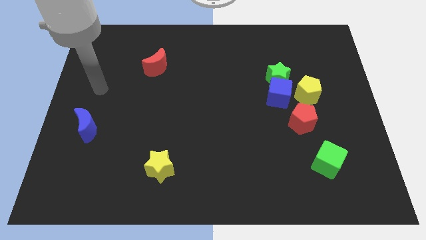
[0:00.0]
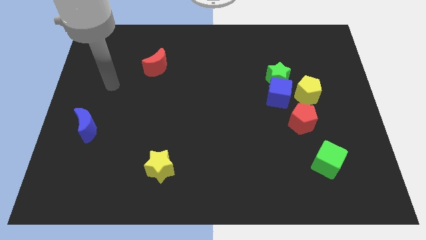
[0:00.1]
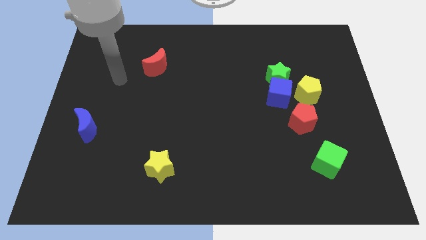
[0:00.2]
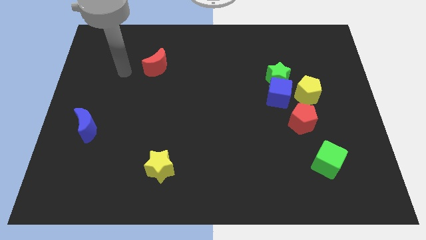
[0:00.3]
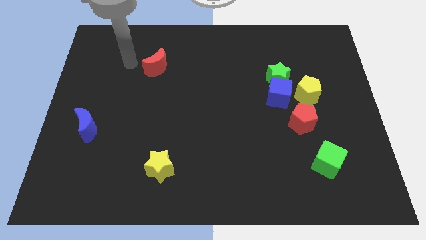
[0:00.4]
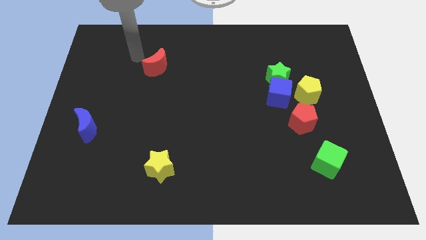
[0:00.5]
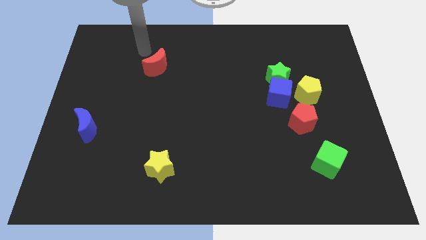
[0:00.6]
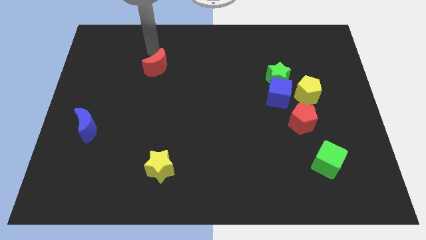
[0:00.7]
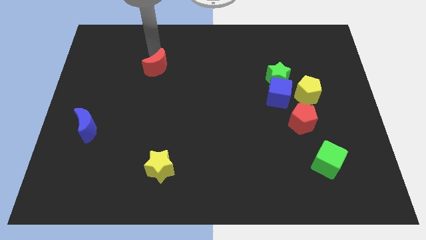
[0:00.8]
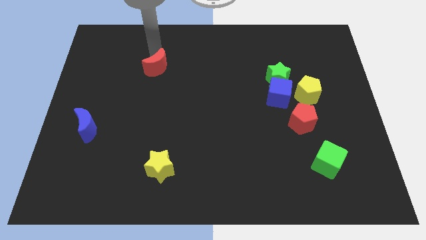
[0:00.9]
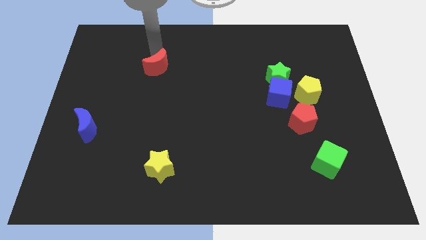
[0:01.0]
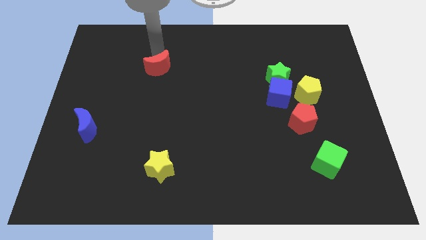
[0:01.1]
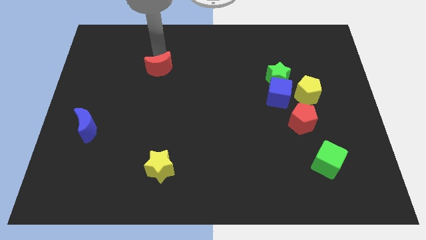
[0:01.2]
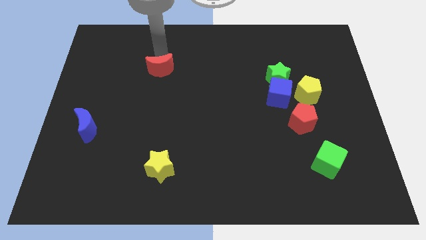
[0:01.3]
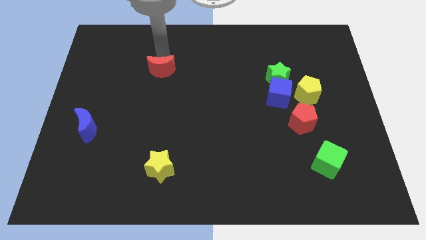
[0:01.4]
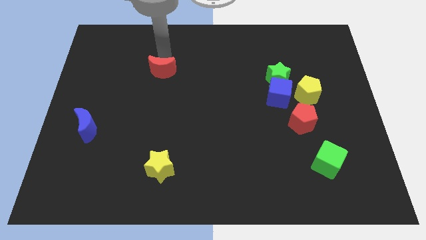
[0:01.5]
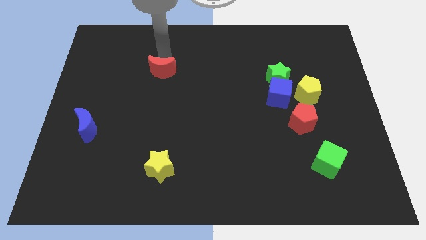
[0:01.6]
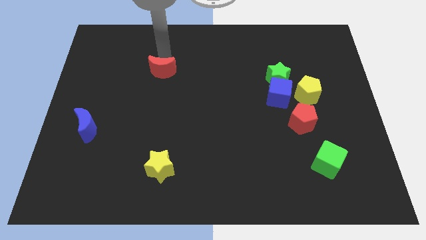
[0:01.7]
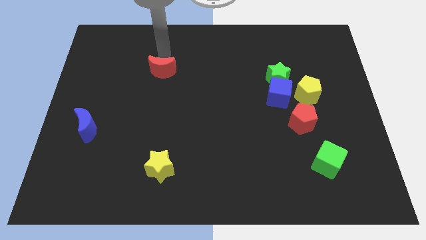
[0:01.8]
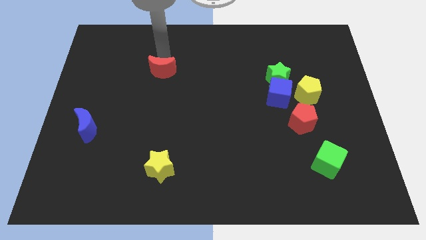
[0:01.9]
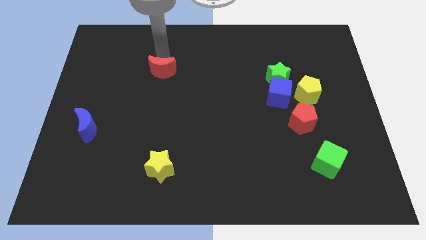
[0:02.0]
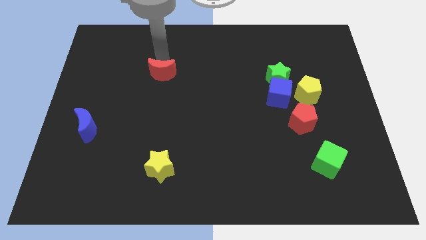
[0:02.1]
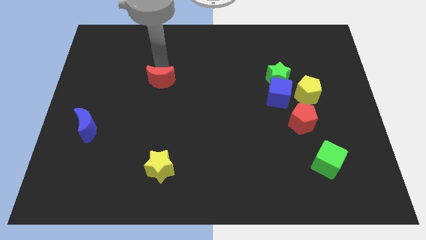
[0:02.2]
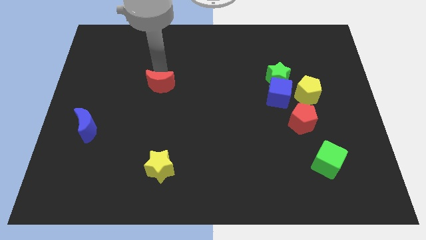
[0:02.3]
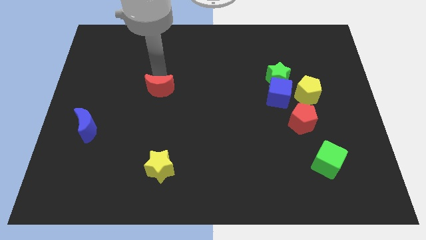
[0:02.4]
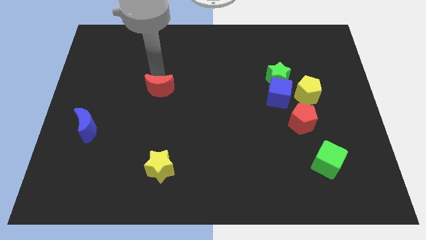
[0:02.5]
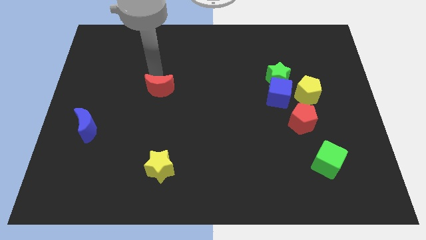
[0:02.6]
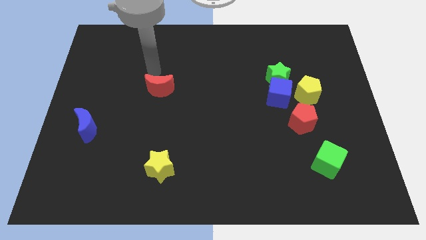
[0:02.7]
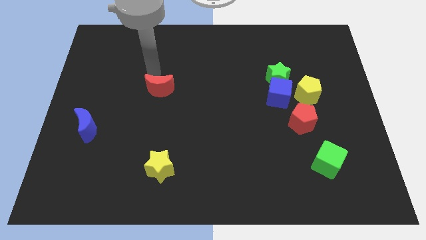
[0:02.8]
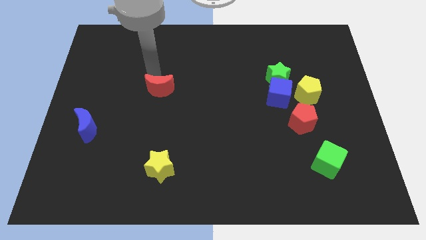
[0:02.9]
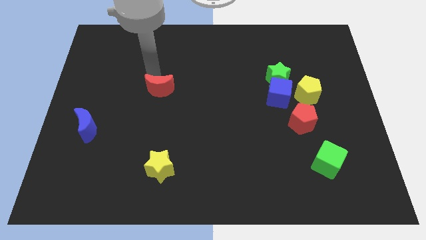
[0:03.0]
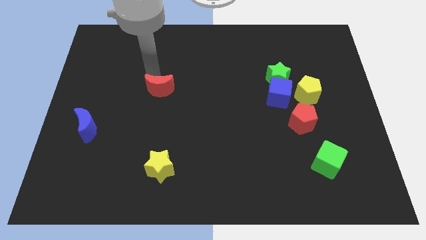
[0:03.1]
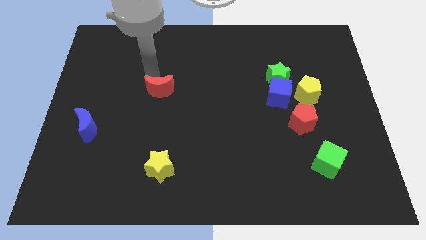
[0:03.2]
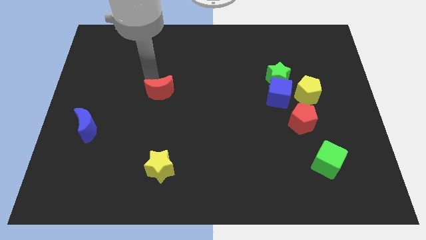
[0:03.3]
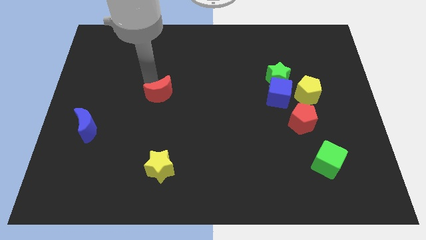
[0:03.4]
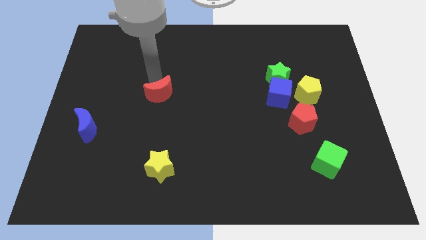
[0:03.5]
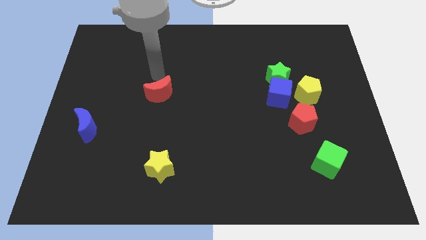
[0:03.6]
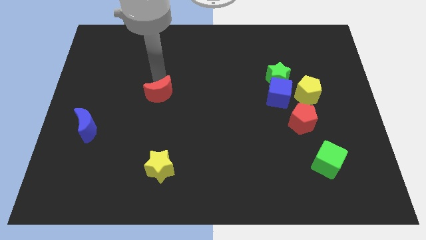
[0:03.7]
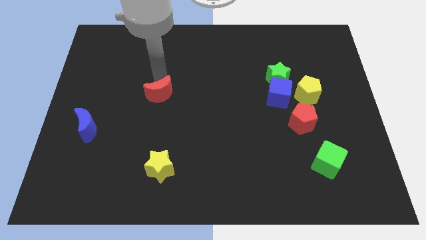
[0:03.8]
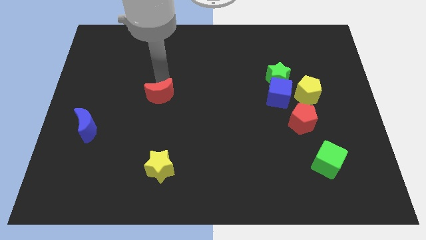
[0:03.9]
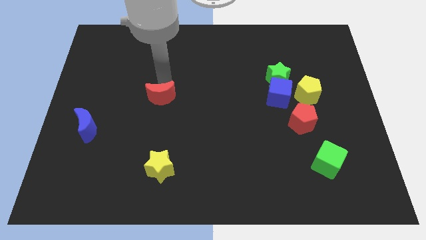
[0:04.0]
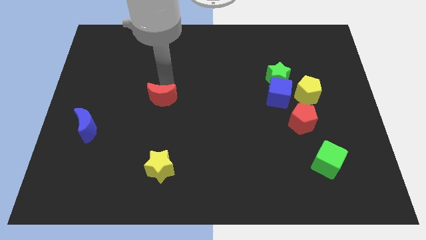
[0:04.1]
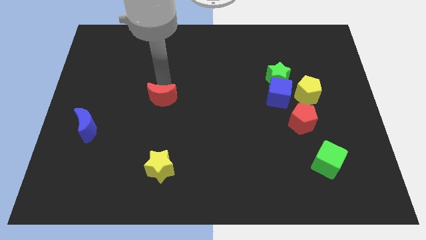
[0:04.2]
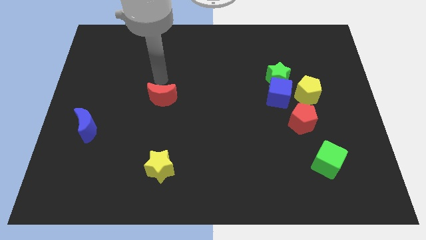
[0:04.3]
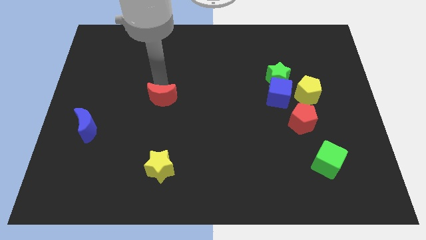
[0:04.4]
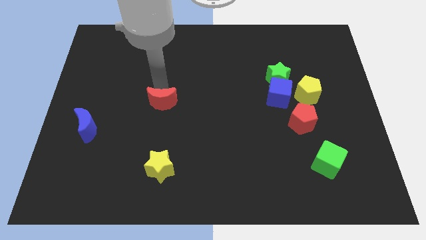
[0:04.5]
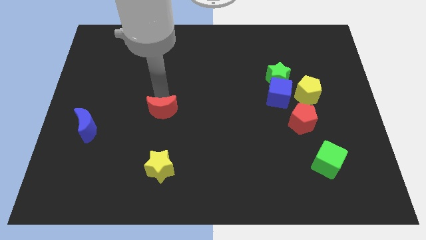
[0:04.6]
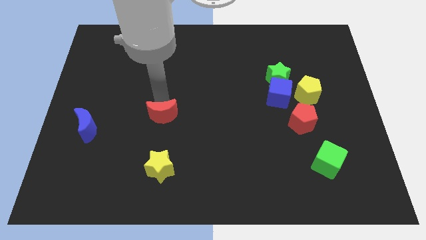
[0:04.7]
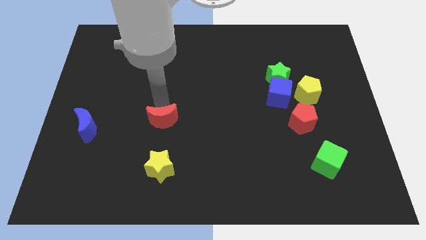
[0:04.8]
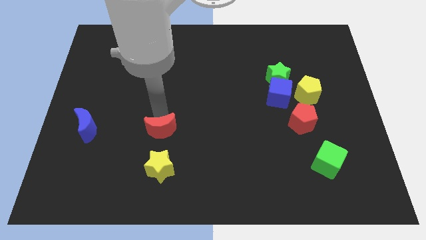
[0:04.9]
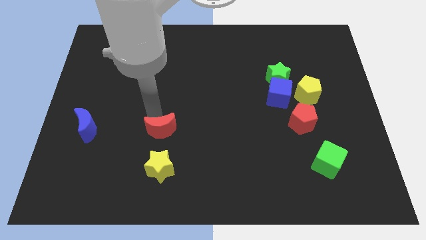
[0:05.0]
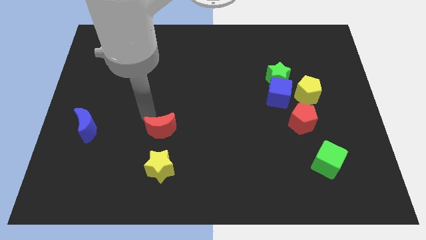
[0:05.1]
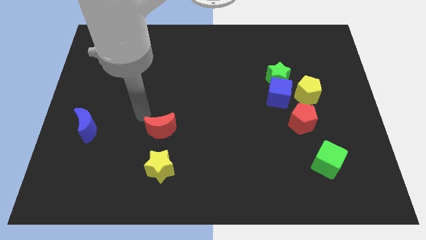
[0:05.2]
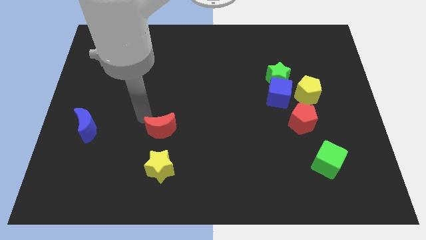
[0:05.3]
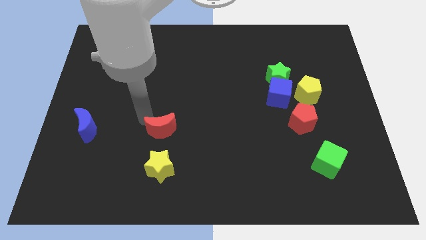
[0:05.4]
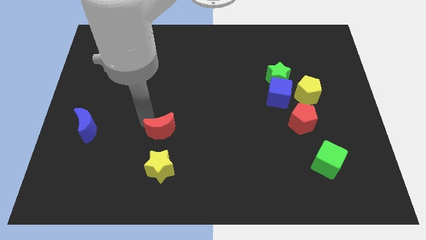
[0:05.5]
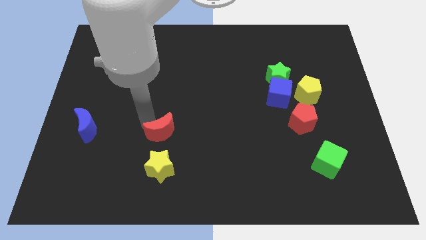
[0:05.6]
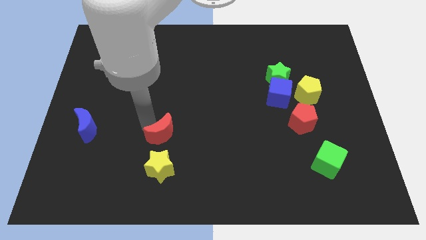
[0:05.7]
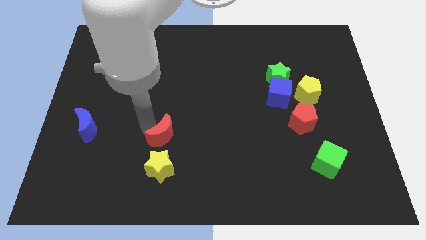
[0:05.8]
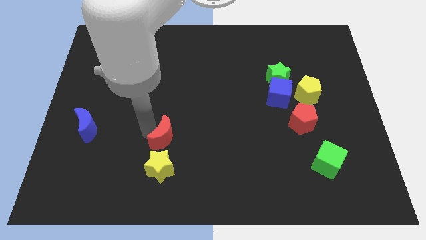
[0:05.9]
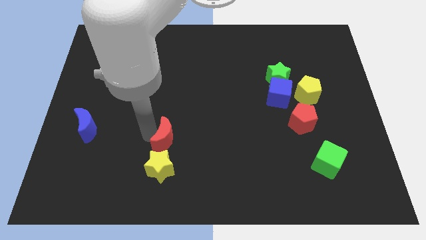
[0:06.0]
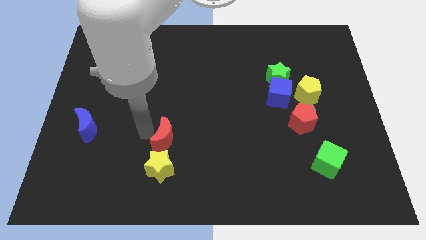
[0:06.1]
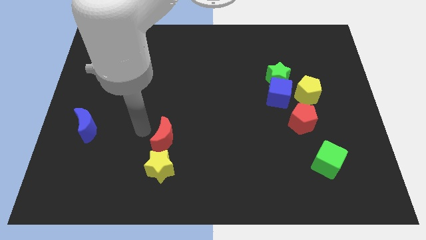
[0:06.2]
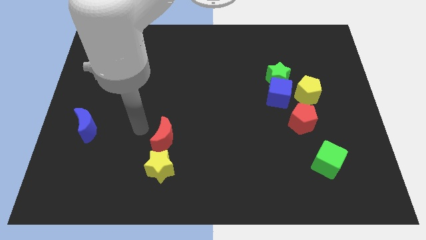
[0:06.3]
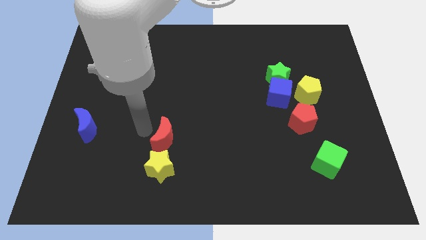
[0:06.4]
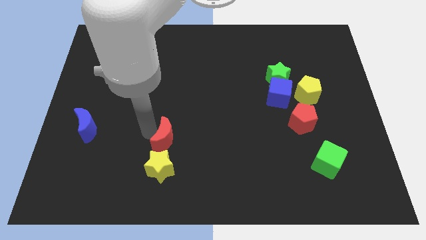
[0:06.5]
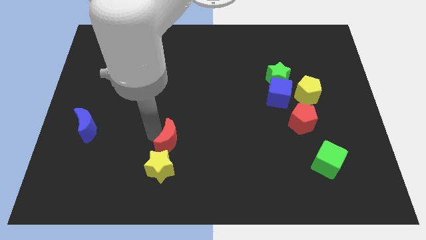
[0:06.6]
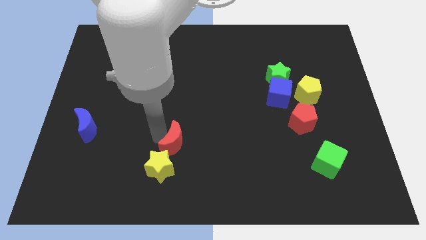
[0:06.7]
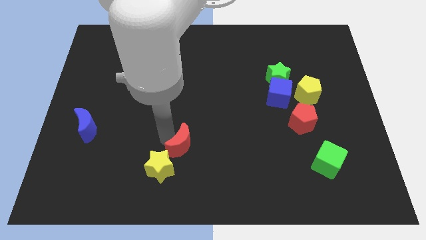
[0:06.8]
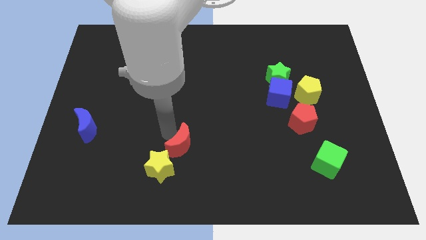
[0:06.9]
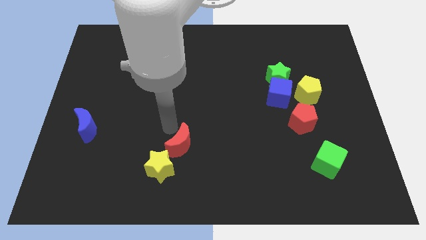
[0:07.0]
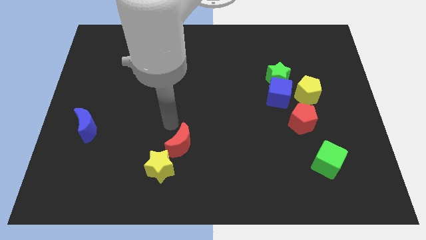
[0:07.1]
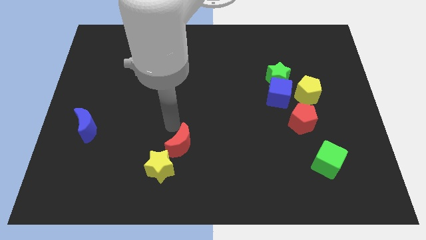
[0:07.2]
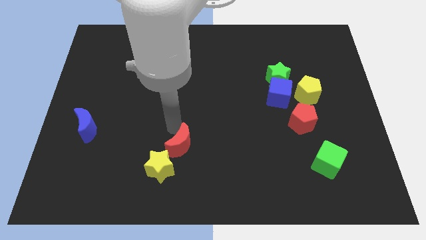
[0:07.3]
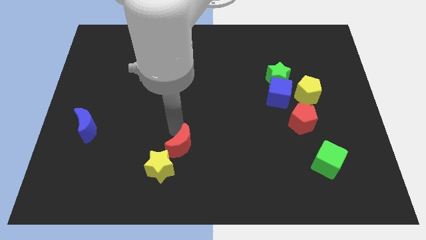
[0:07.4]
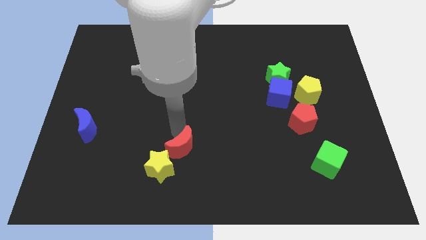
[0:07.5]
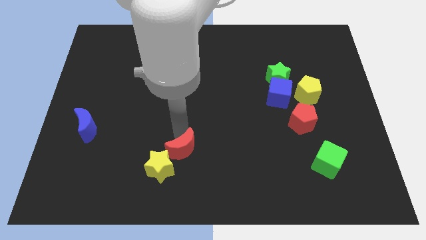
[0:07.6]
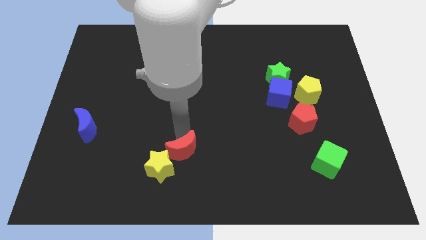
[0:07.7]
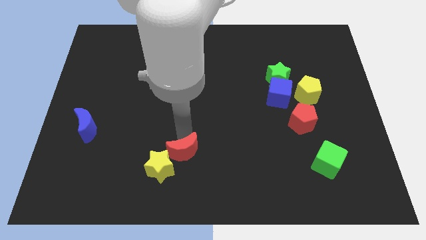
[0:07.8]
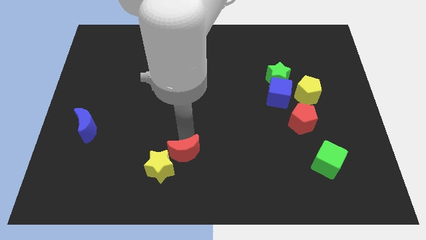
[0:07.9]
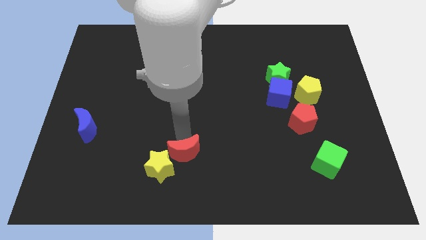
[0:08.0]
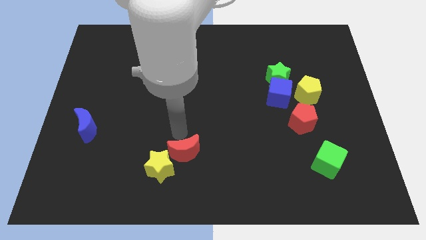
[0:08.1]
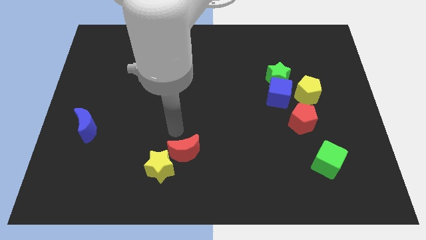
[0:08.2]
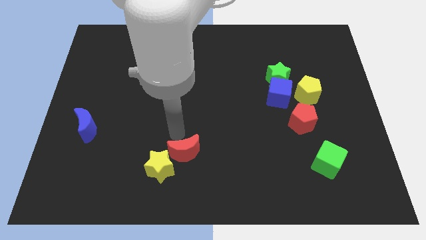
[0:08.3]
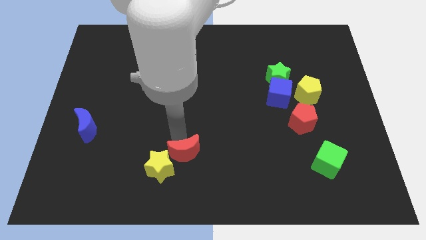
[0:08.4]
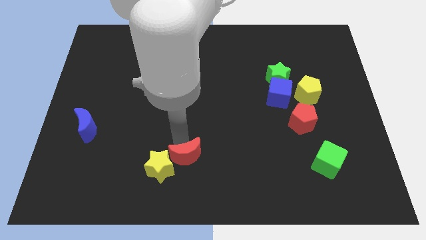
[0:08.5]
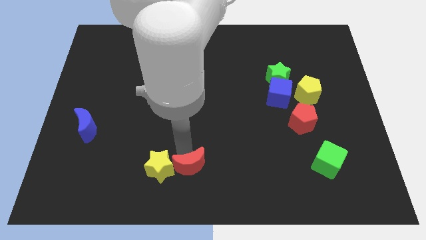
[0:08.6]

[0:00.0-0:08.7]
put the red moon to the bottom
